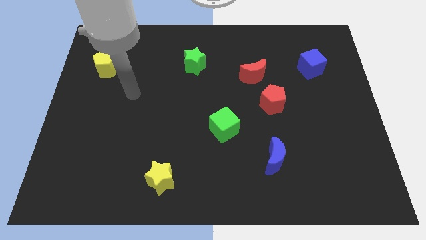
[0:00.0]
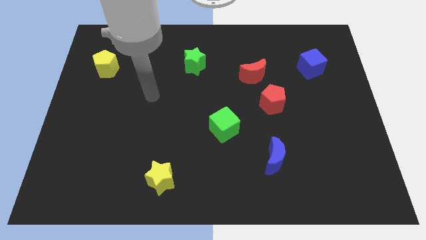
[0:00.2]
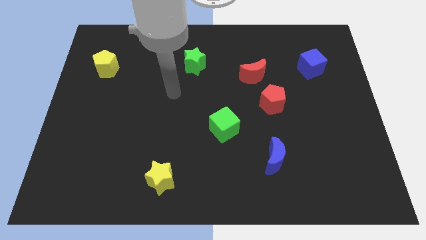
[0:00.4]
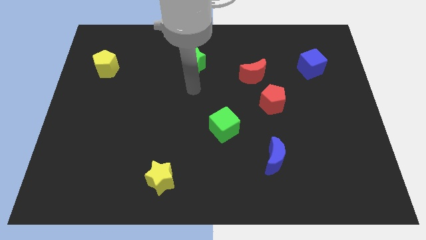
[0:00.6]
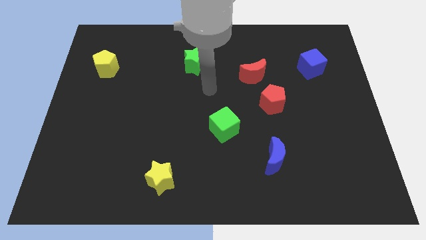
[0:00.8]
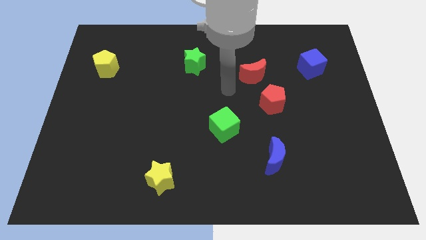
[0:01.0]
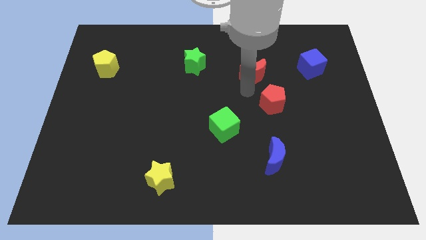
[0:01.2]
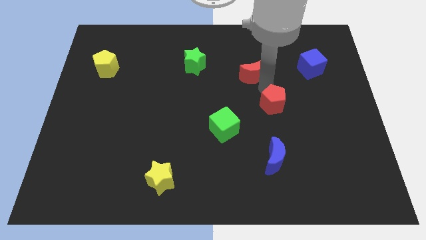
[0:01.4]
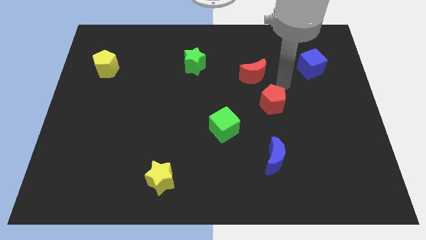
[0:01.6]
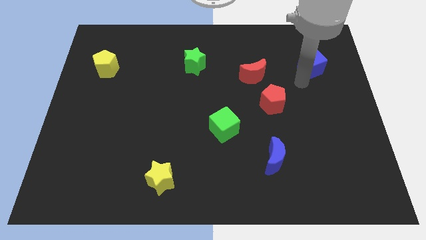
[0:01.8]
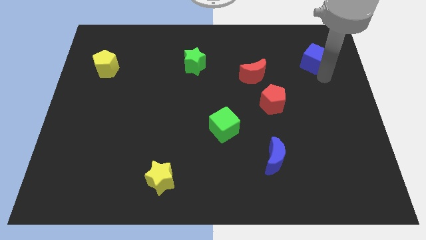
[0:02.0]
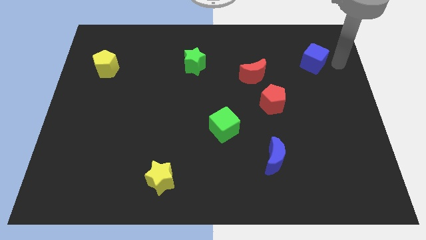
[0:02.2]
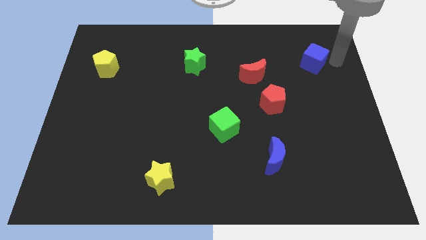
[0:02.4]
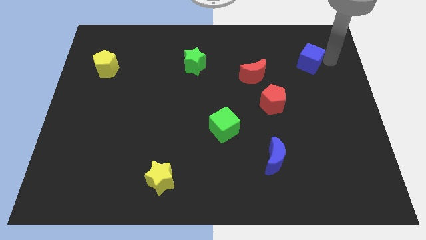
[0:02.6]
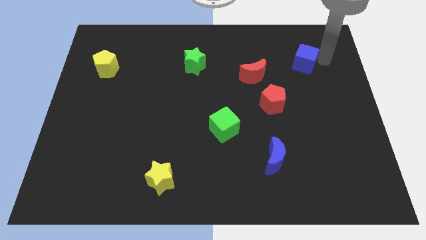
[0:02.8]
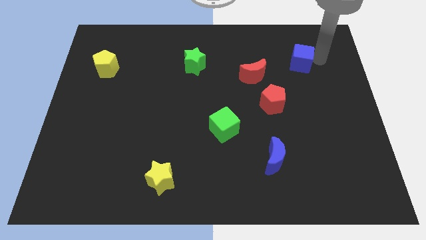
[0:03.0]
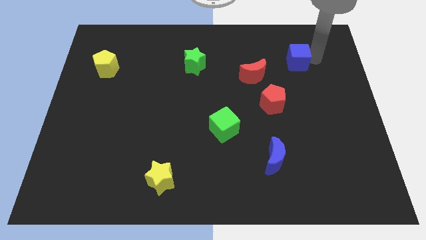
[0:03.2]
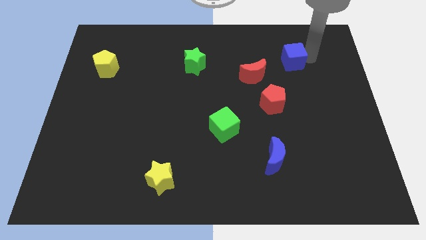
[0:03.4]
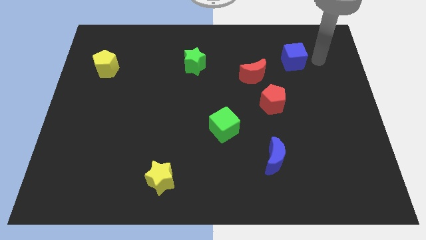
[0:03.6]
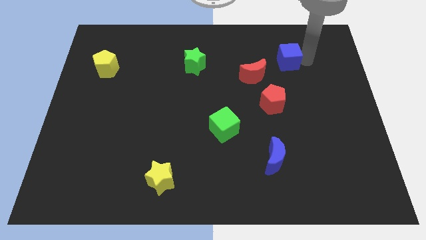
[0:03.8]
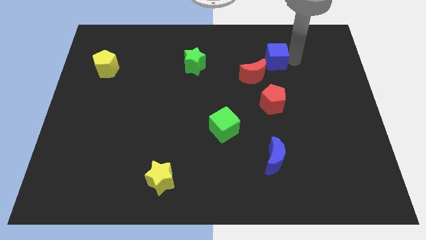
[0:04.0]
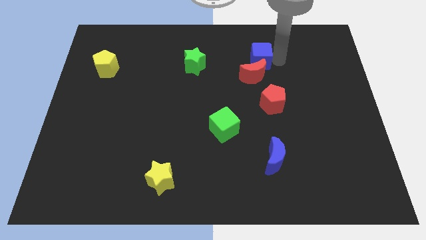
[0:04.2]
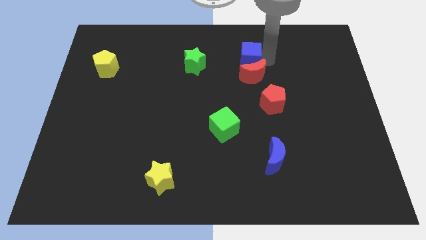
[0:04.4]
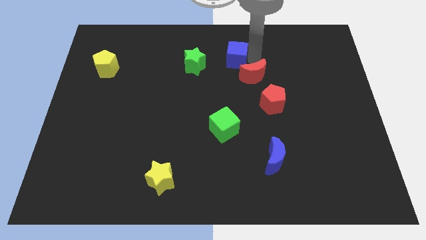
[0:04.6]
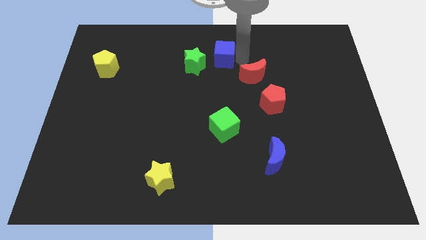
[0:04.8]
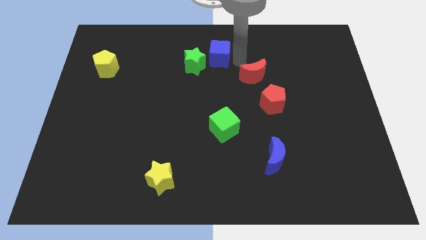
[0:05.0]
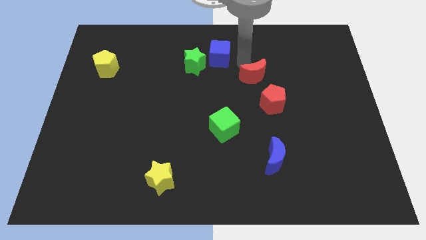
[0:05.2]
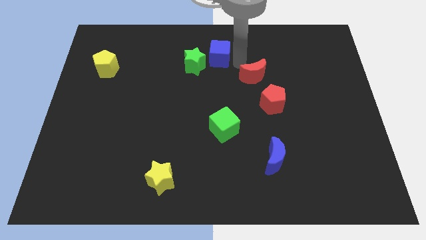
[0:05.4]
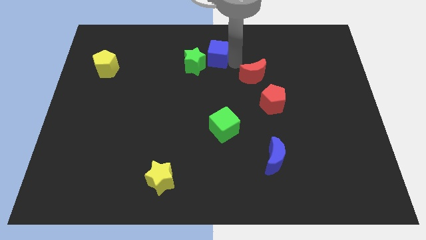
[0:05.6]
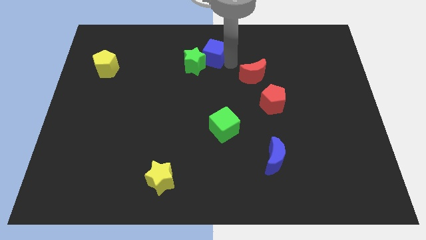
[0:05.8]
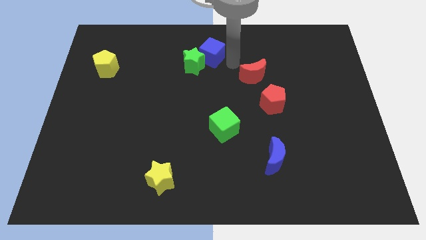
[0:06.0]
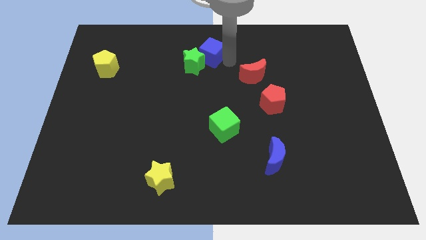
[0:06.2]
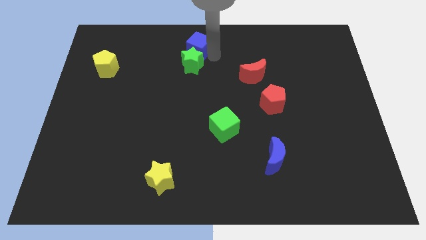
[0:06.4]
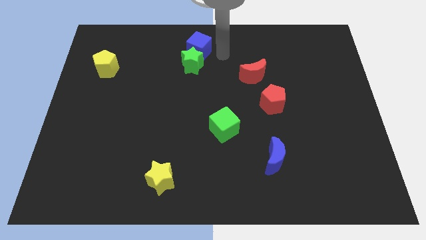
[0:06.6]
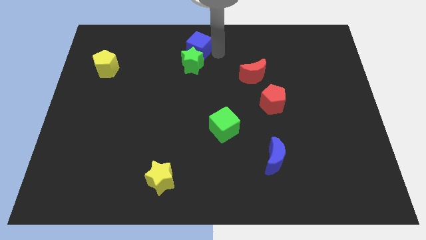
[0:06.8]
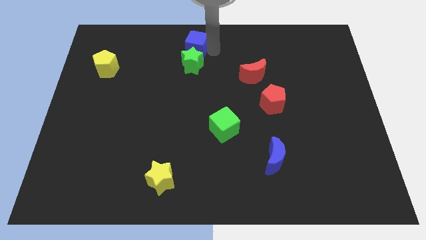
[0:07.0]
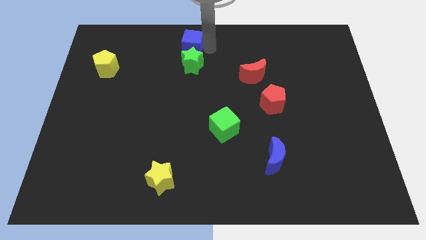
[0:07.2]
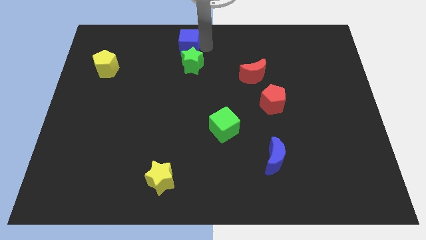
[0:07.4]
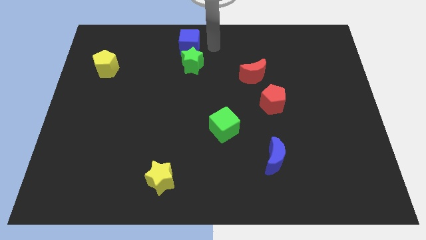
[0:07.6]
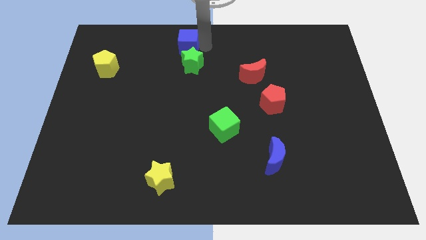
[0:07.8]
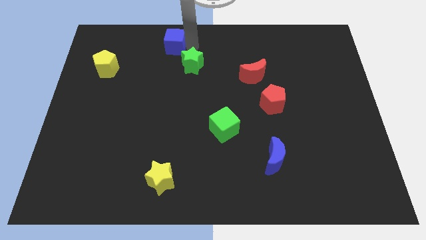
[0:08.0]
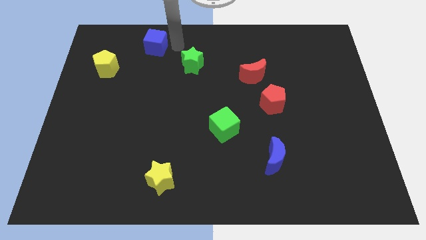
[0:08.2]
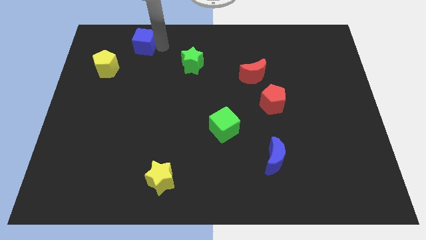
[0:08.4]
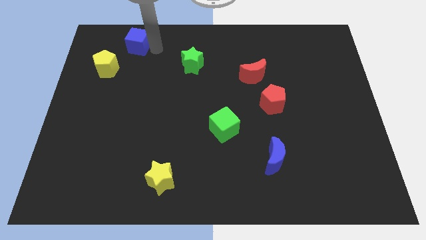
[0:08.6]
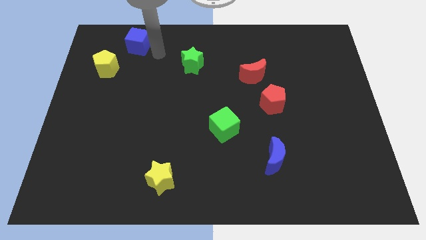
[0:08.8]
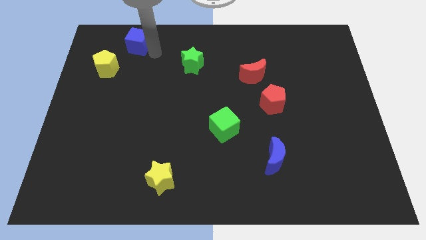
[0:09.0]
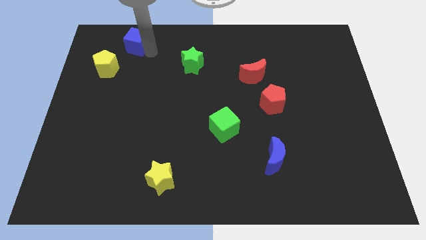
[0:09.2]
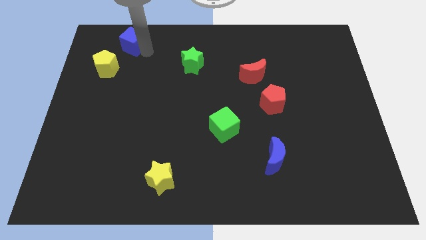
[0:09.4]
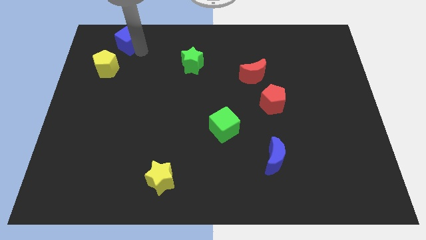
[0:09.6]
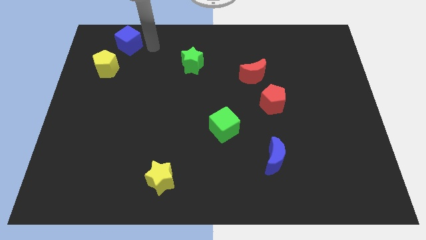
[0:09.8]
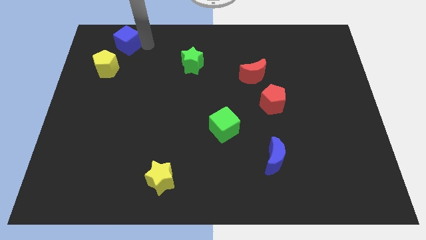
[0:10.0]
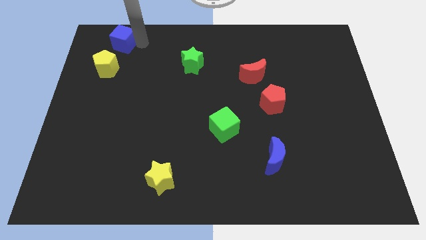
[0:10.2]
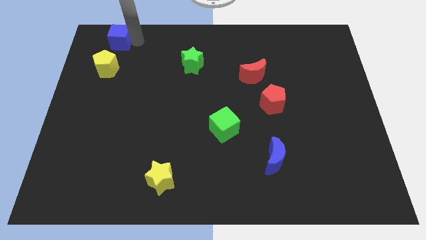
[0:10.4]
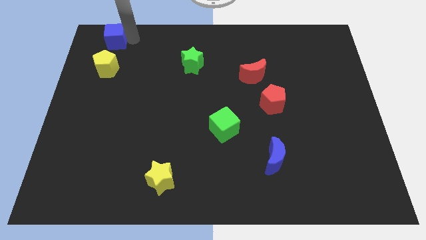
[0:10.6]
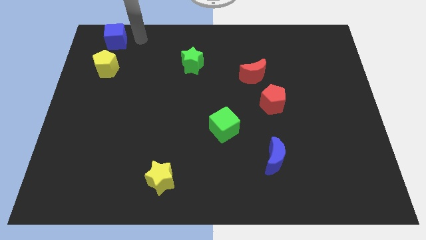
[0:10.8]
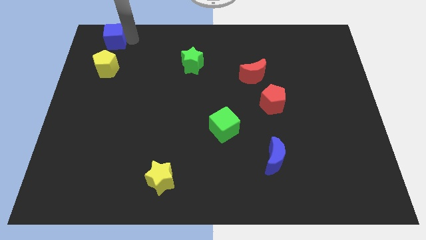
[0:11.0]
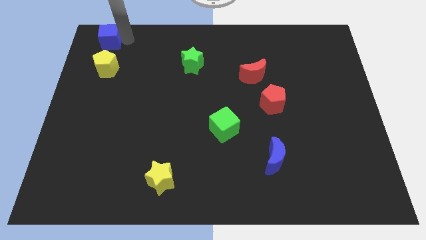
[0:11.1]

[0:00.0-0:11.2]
move the blue cube to the top left of the board
